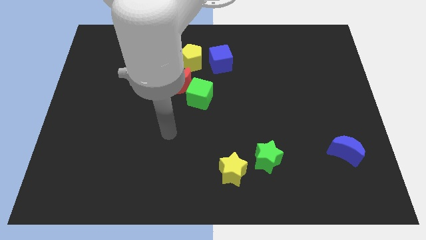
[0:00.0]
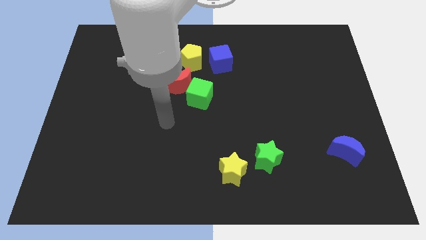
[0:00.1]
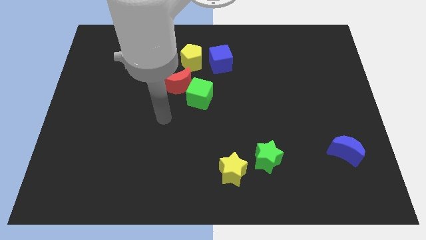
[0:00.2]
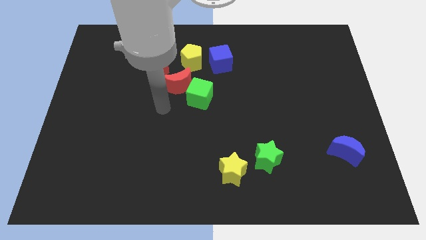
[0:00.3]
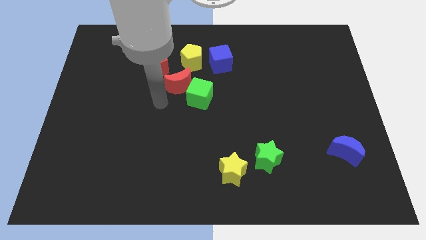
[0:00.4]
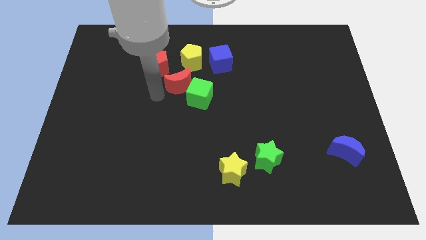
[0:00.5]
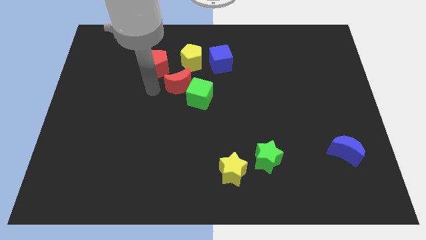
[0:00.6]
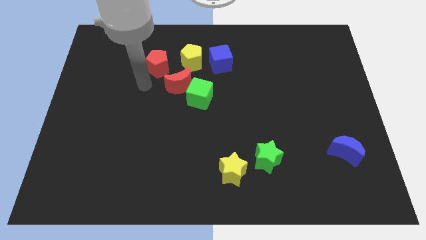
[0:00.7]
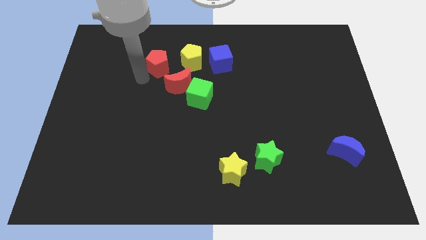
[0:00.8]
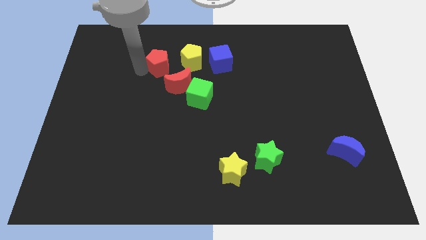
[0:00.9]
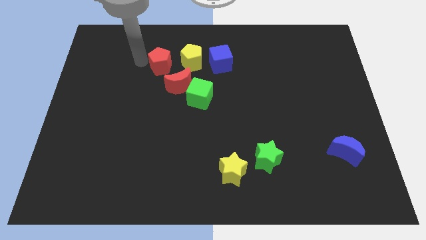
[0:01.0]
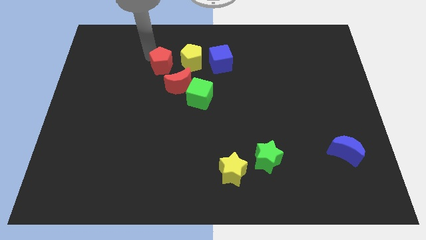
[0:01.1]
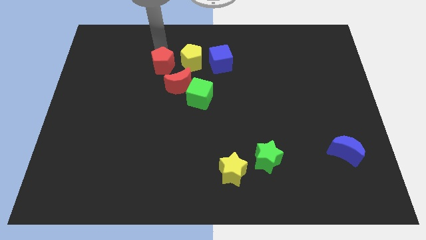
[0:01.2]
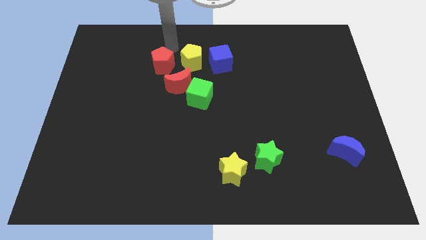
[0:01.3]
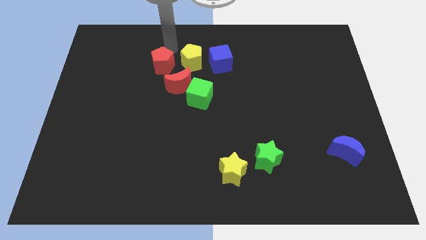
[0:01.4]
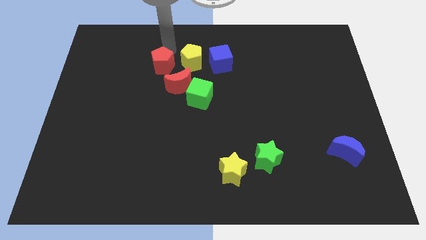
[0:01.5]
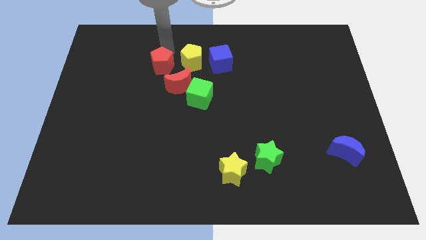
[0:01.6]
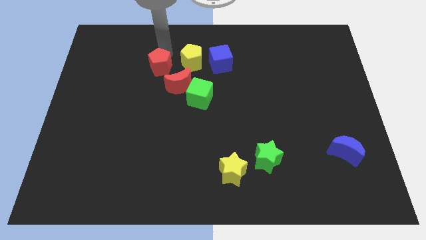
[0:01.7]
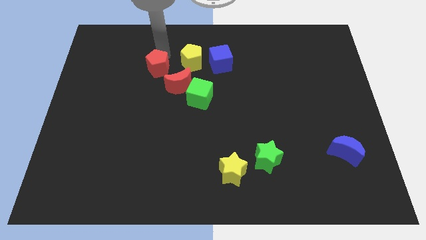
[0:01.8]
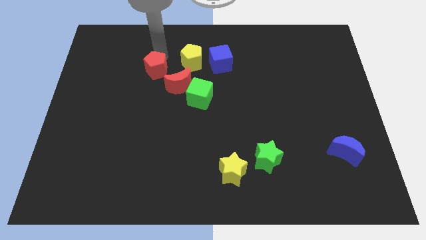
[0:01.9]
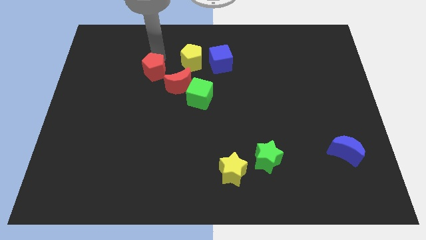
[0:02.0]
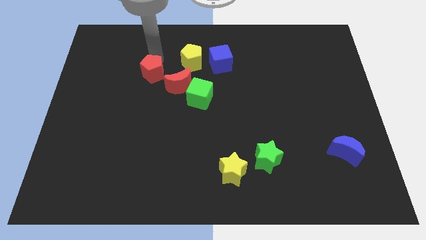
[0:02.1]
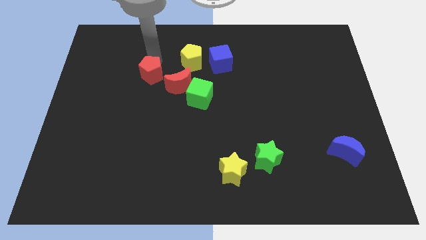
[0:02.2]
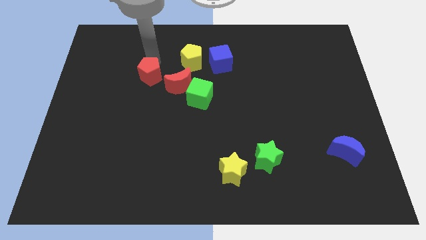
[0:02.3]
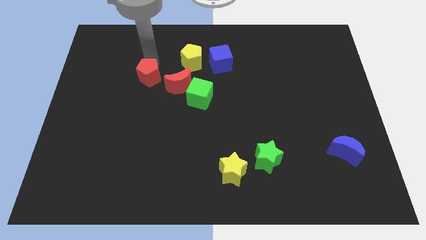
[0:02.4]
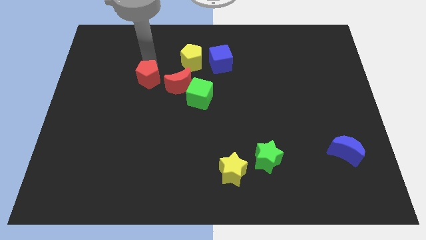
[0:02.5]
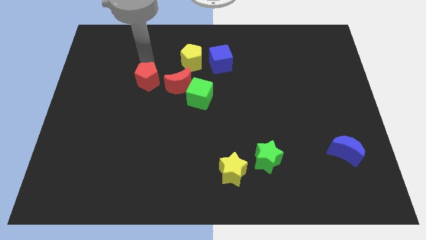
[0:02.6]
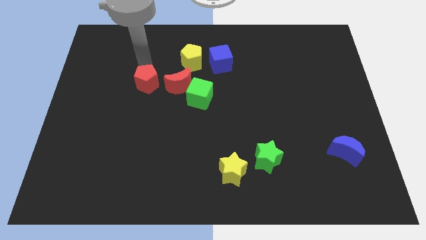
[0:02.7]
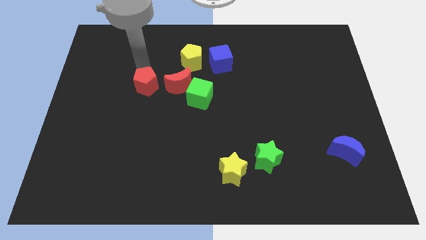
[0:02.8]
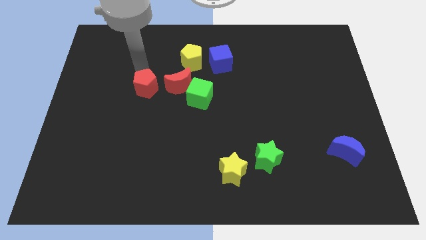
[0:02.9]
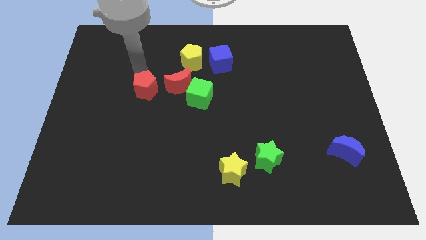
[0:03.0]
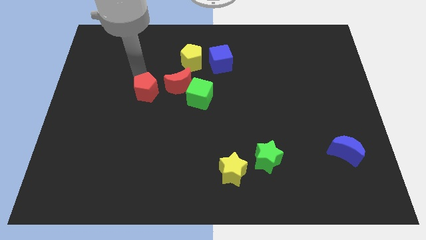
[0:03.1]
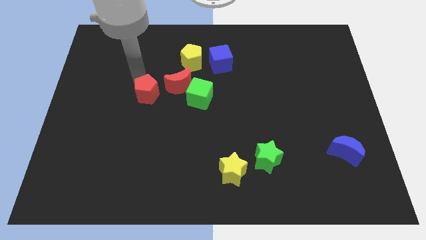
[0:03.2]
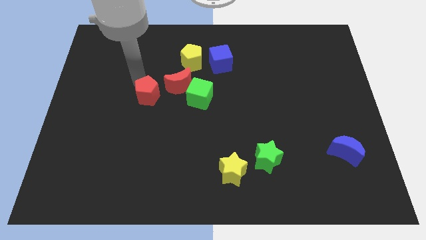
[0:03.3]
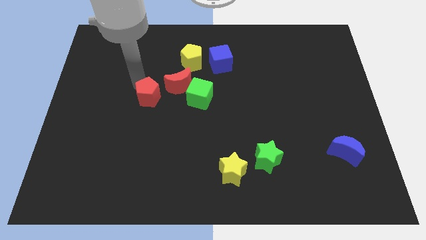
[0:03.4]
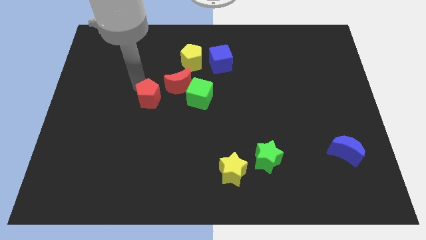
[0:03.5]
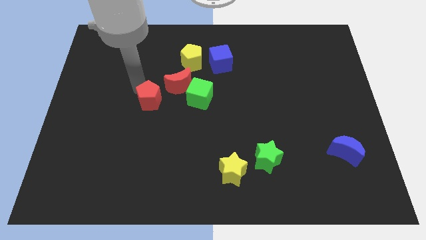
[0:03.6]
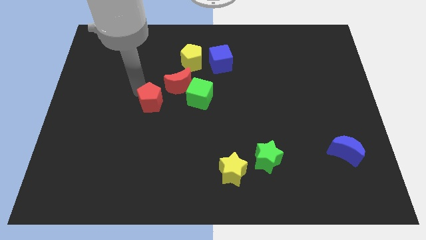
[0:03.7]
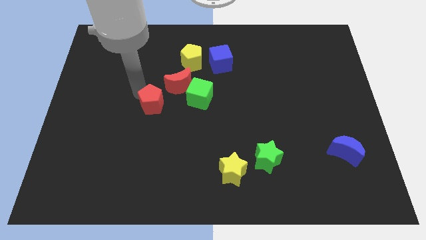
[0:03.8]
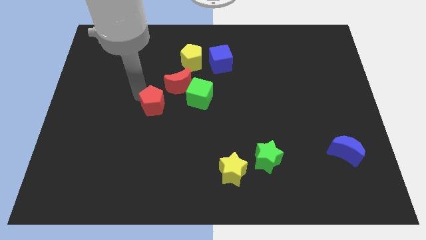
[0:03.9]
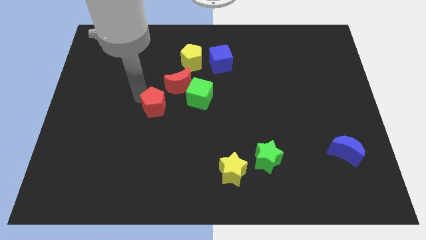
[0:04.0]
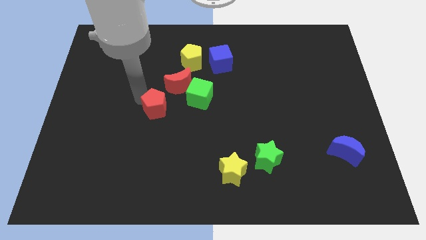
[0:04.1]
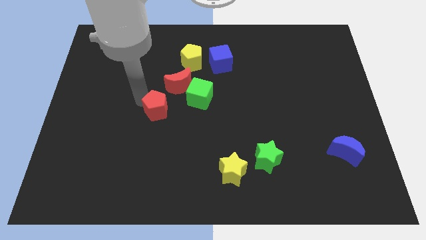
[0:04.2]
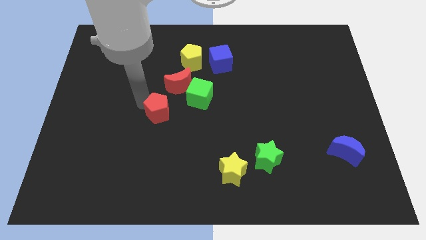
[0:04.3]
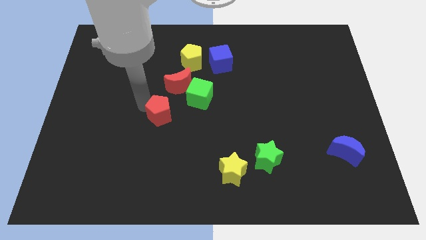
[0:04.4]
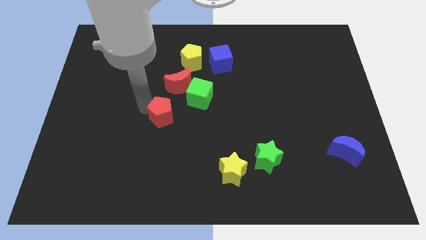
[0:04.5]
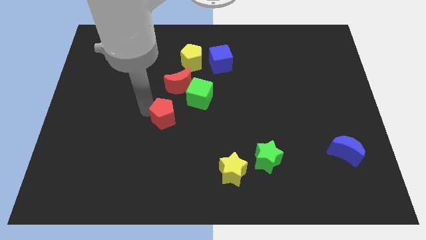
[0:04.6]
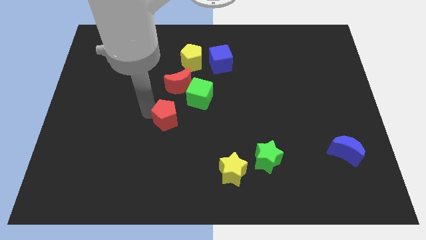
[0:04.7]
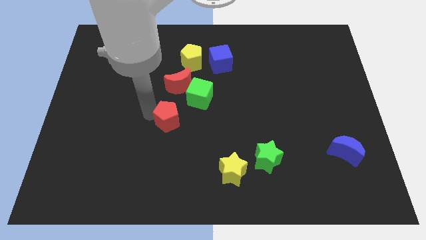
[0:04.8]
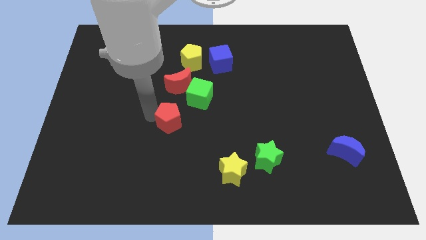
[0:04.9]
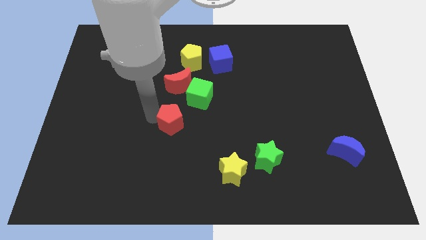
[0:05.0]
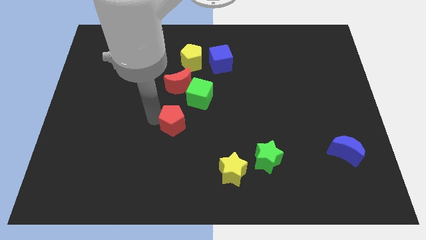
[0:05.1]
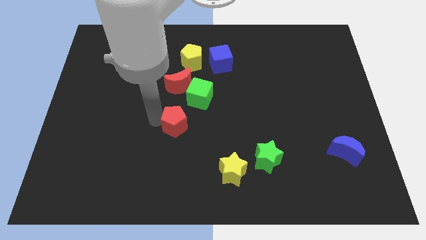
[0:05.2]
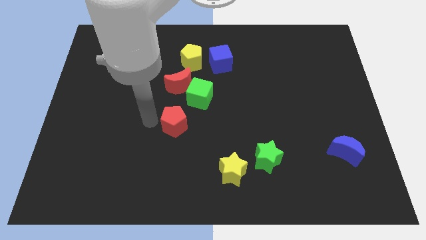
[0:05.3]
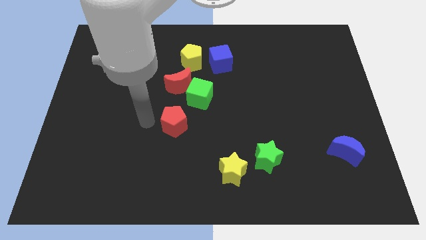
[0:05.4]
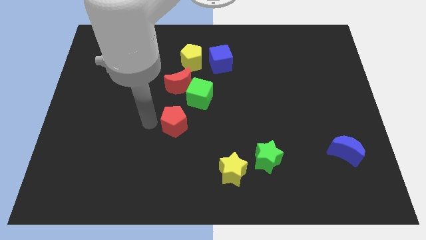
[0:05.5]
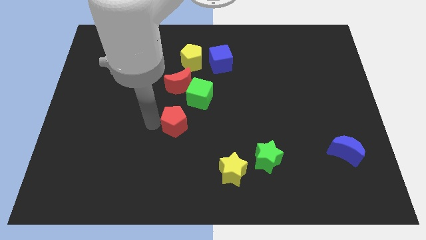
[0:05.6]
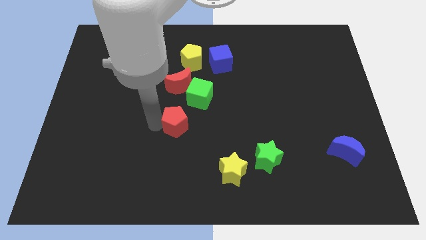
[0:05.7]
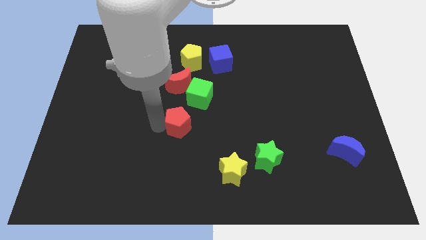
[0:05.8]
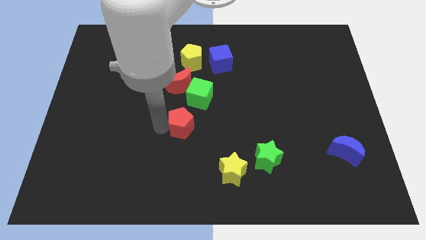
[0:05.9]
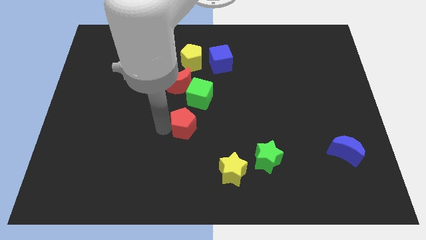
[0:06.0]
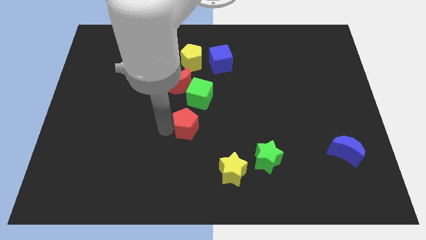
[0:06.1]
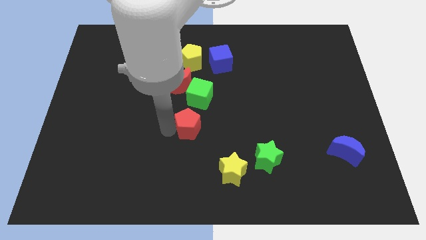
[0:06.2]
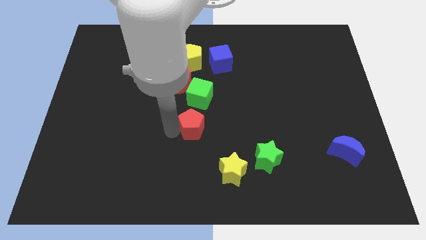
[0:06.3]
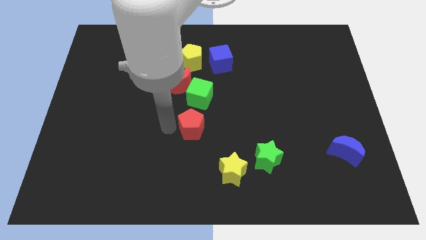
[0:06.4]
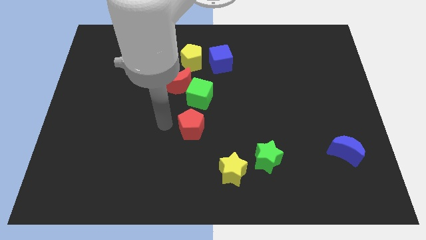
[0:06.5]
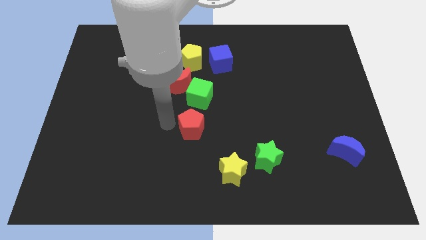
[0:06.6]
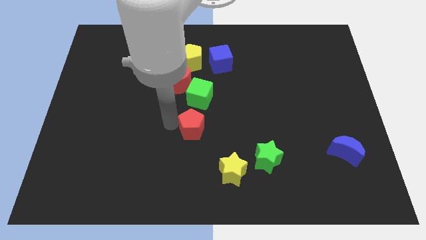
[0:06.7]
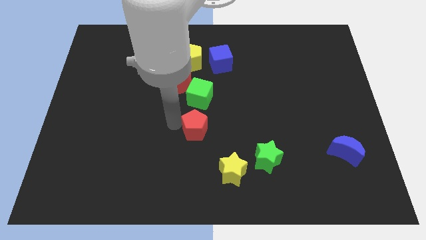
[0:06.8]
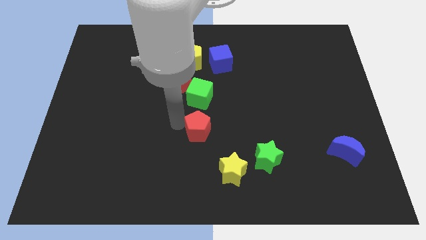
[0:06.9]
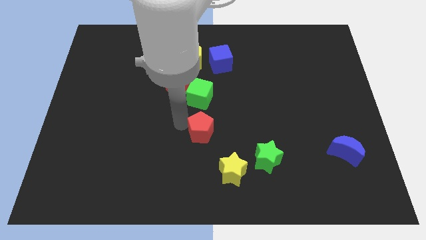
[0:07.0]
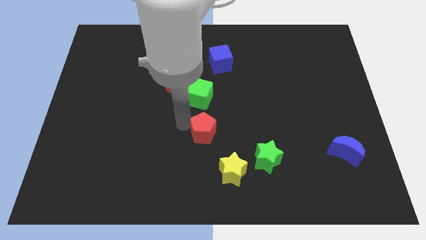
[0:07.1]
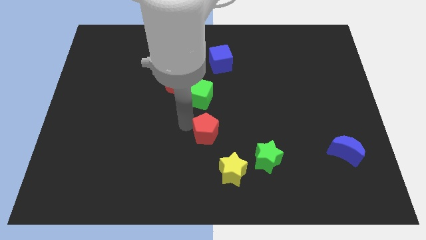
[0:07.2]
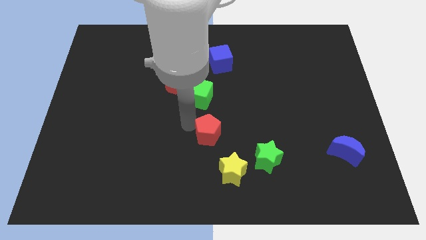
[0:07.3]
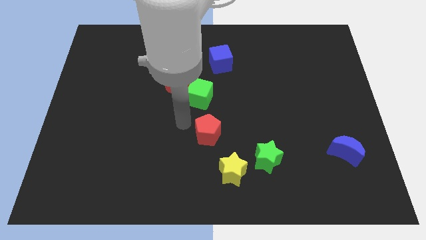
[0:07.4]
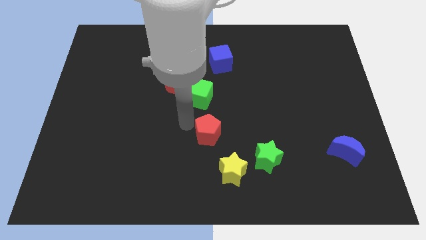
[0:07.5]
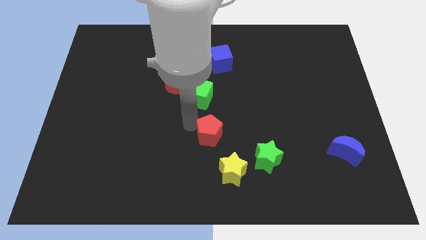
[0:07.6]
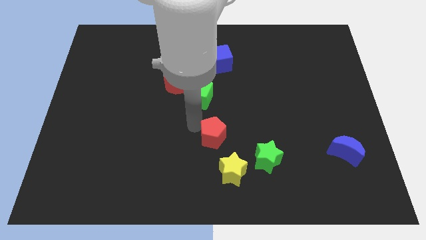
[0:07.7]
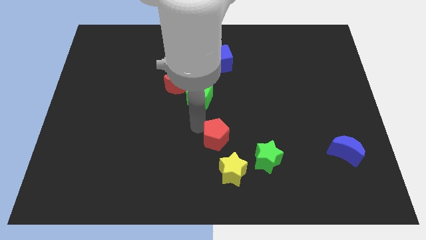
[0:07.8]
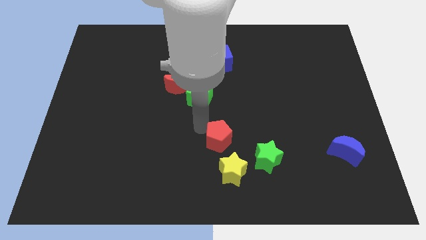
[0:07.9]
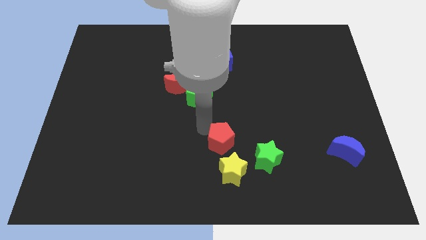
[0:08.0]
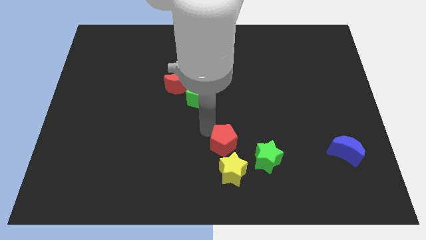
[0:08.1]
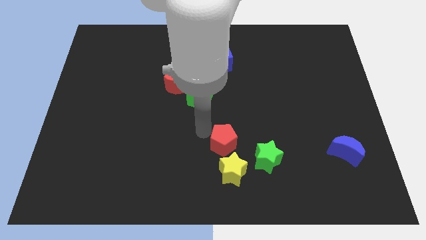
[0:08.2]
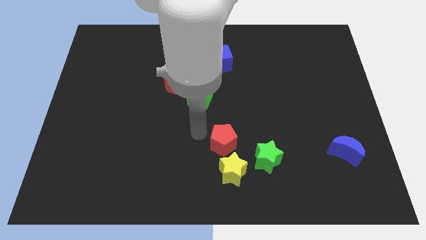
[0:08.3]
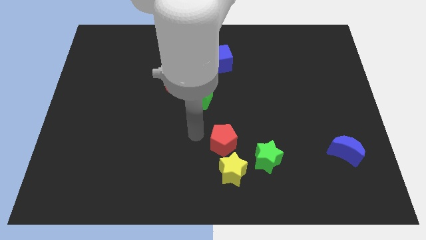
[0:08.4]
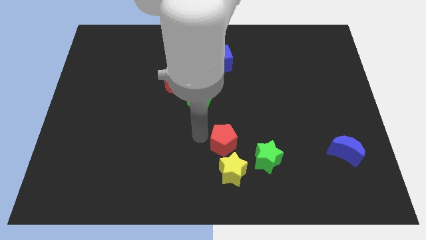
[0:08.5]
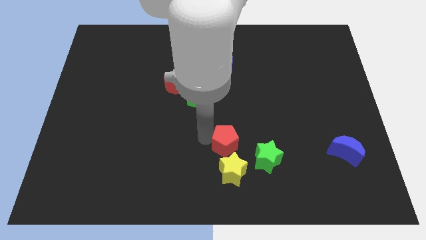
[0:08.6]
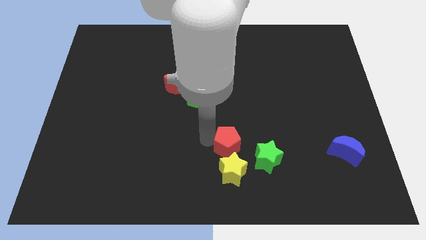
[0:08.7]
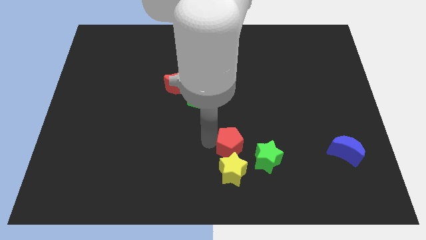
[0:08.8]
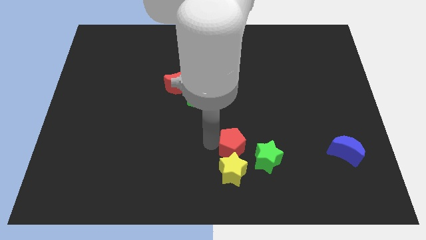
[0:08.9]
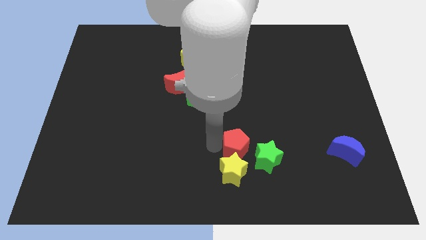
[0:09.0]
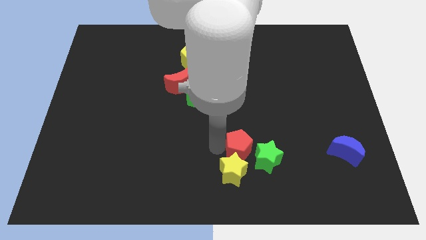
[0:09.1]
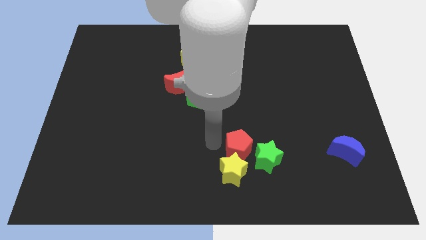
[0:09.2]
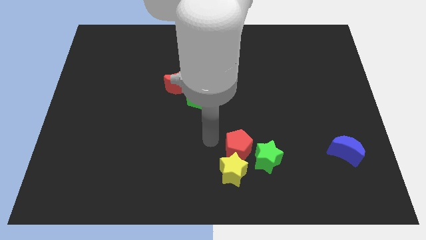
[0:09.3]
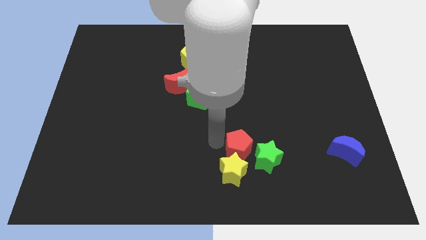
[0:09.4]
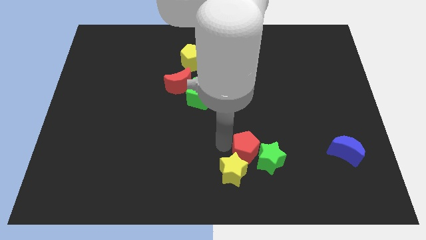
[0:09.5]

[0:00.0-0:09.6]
put the red pentagon to the green star
